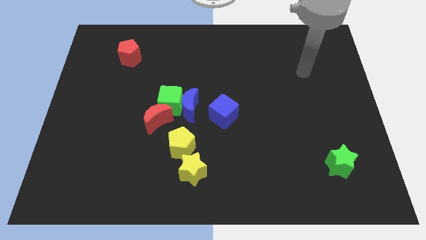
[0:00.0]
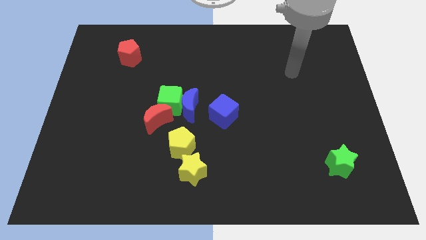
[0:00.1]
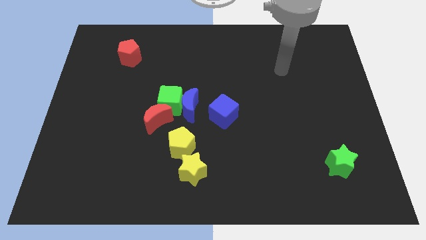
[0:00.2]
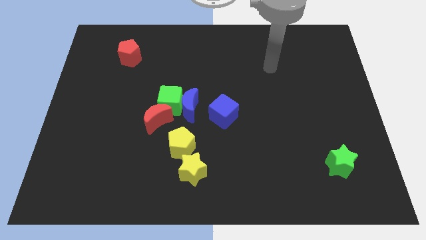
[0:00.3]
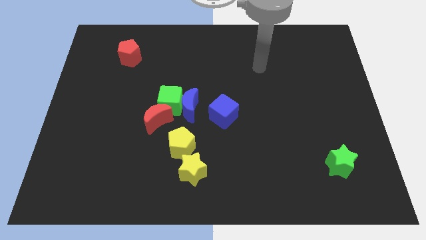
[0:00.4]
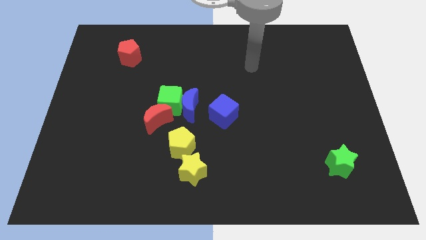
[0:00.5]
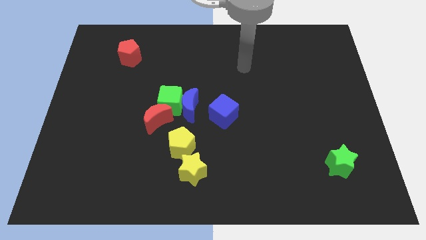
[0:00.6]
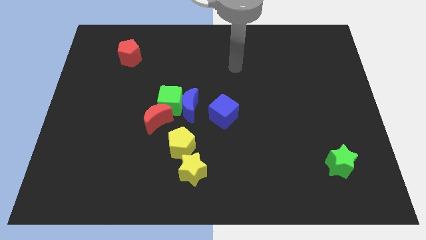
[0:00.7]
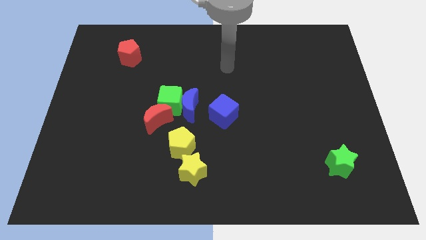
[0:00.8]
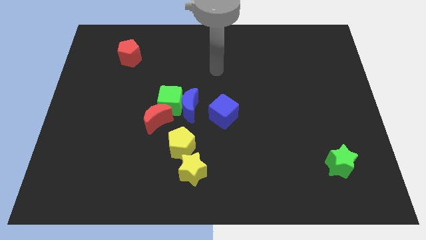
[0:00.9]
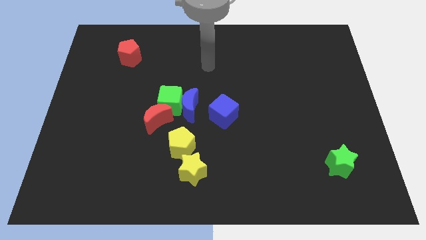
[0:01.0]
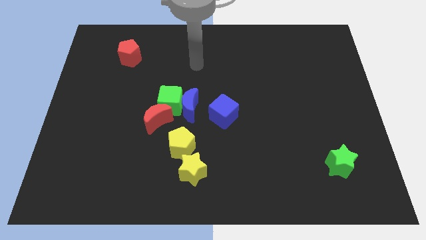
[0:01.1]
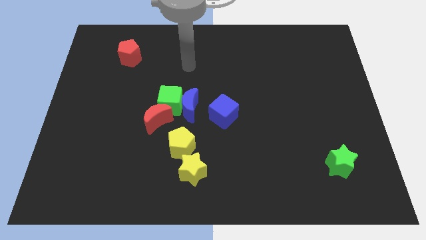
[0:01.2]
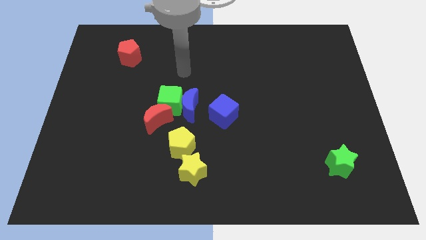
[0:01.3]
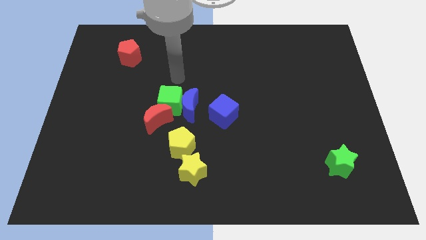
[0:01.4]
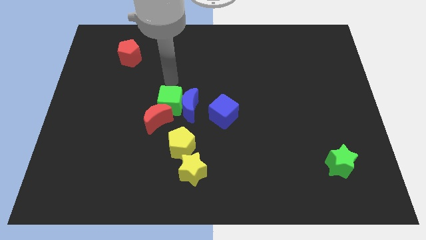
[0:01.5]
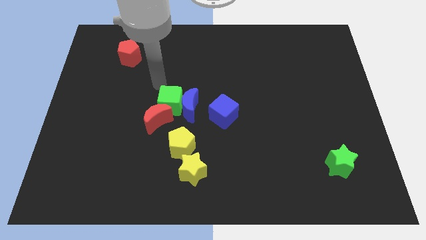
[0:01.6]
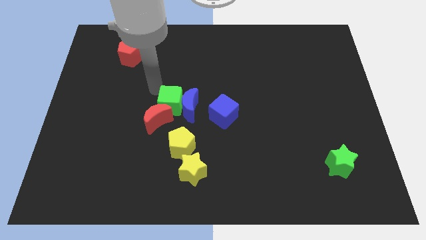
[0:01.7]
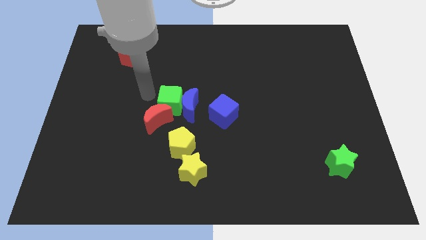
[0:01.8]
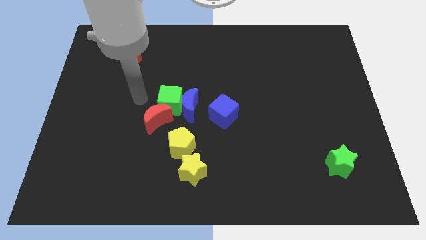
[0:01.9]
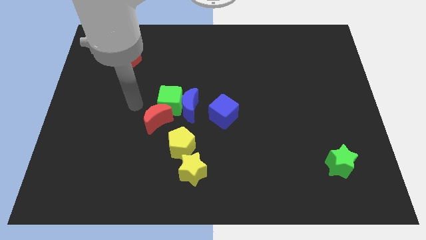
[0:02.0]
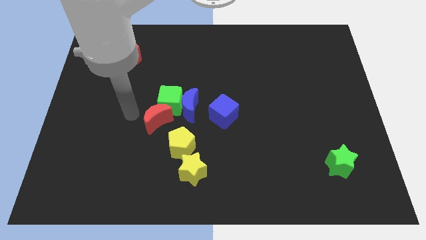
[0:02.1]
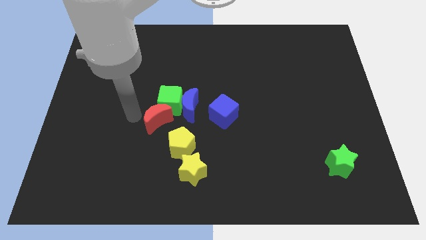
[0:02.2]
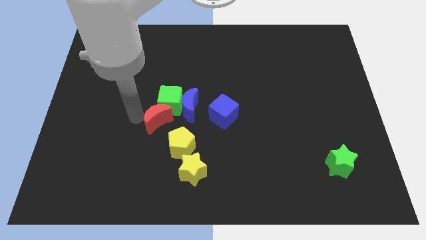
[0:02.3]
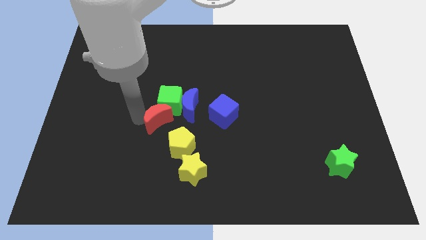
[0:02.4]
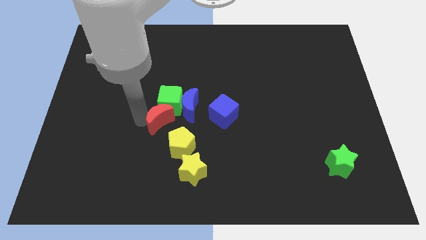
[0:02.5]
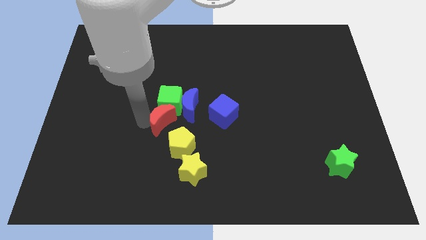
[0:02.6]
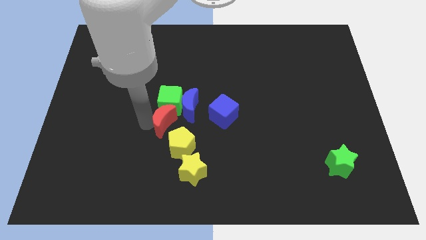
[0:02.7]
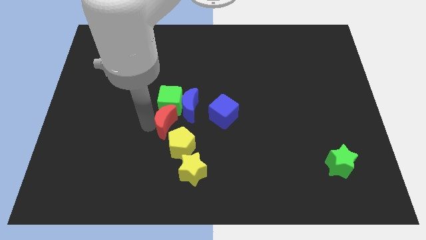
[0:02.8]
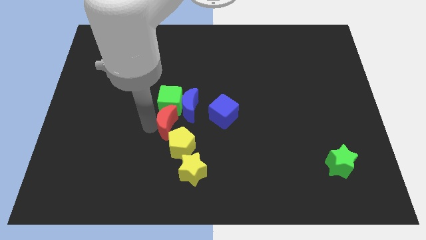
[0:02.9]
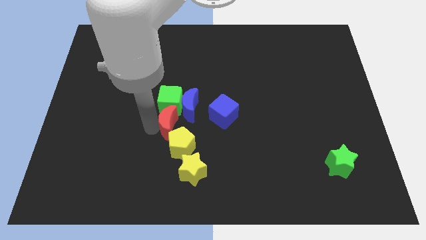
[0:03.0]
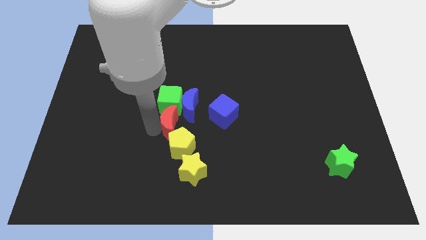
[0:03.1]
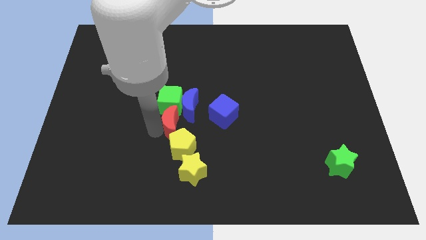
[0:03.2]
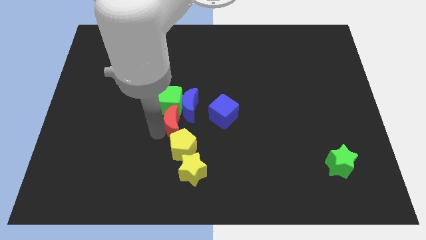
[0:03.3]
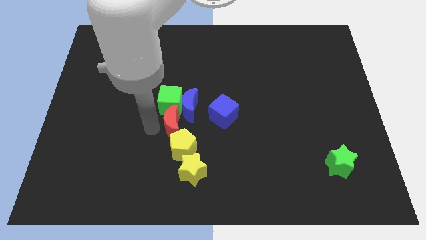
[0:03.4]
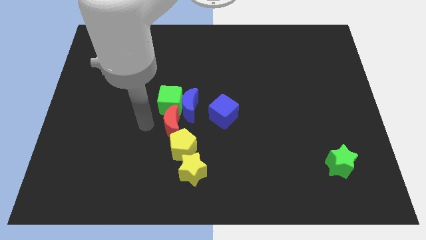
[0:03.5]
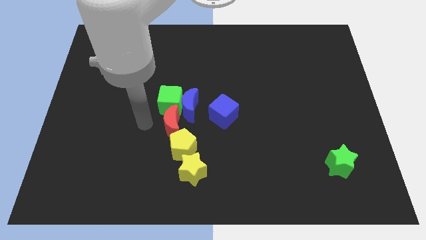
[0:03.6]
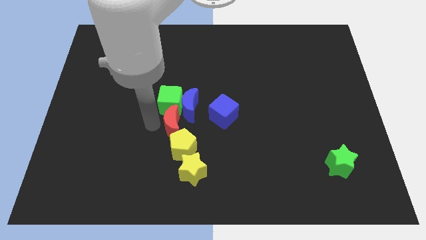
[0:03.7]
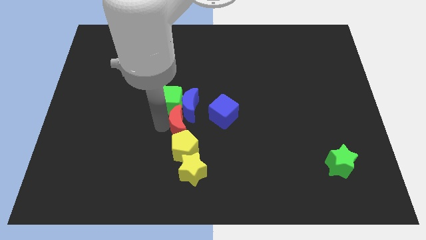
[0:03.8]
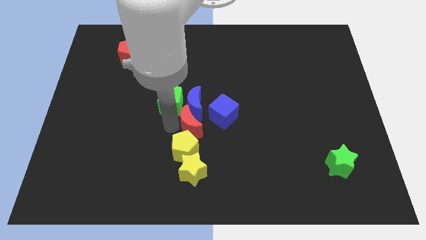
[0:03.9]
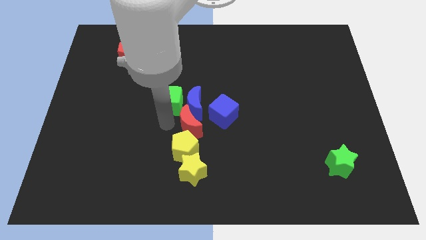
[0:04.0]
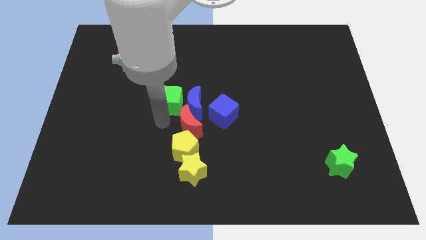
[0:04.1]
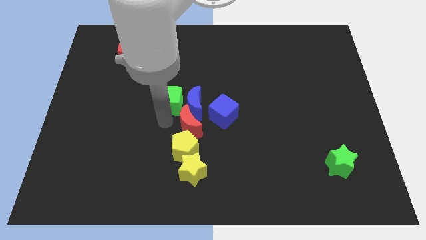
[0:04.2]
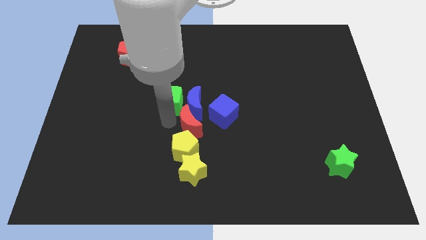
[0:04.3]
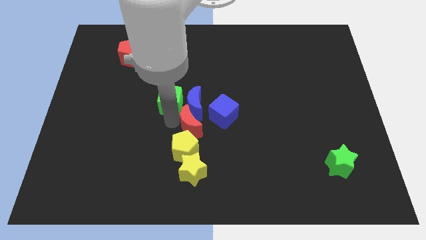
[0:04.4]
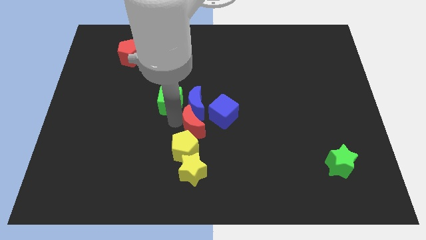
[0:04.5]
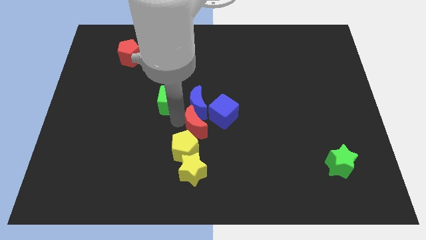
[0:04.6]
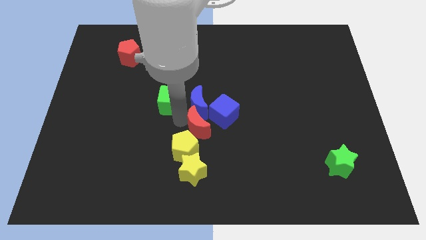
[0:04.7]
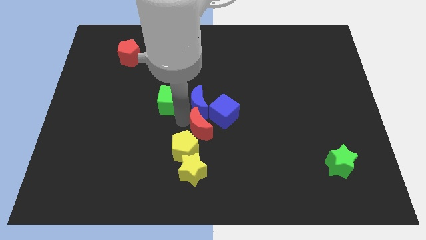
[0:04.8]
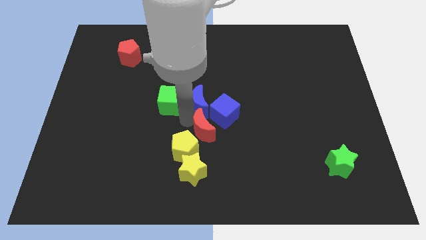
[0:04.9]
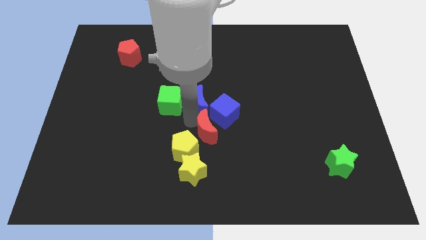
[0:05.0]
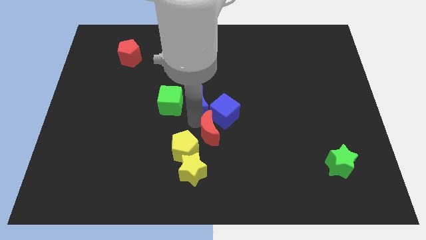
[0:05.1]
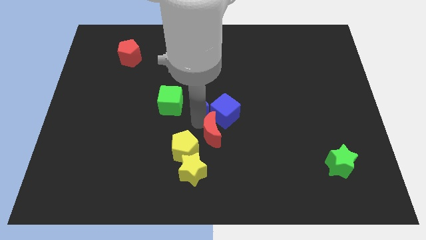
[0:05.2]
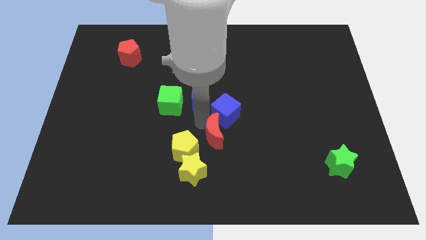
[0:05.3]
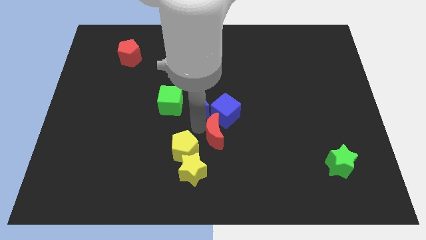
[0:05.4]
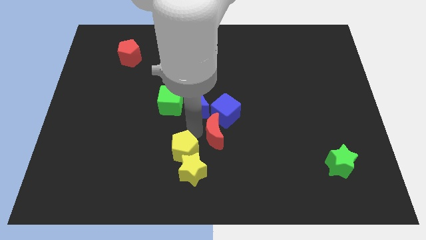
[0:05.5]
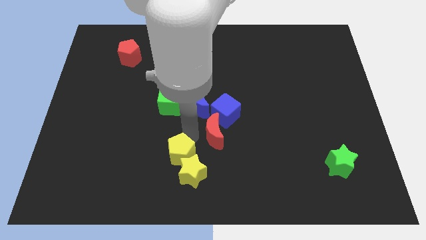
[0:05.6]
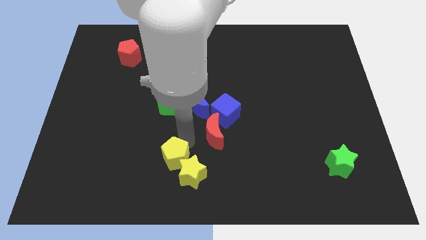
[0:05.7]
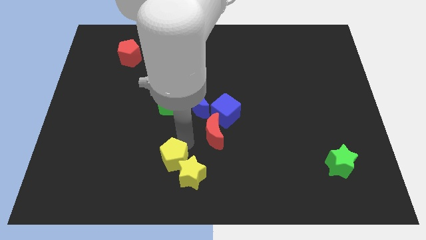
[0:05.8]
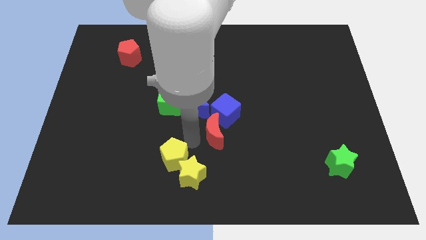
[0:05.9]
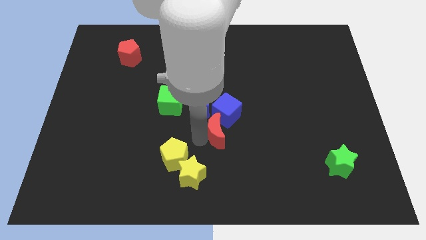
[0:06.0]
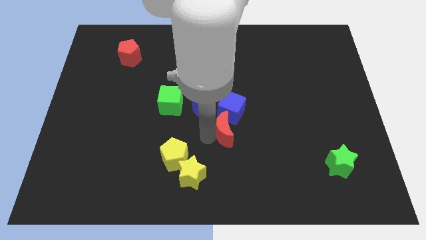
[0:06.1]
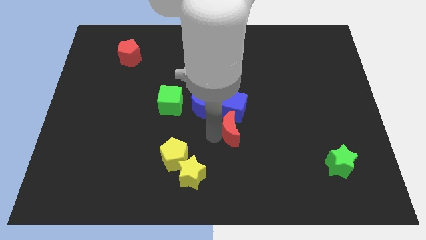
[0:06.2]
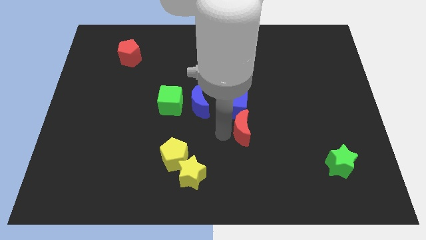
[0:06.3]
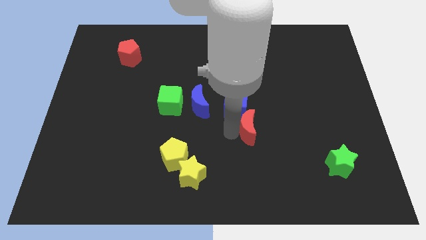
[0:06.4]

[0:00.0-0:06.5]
slide the red moon to the right

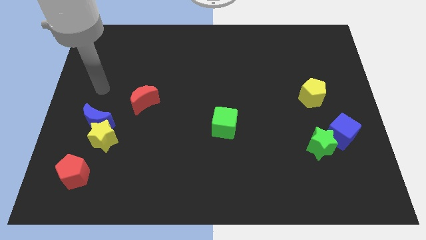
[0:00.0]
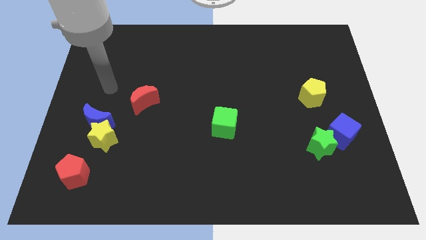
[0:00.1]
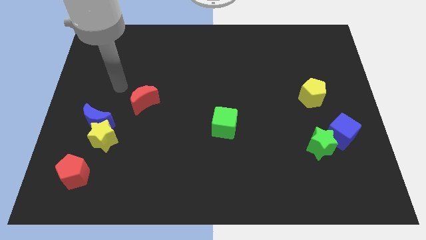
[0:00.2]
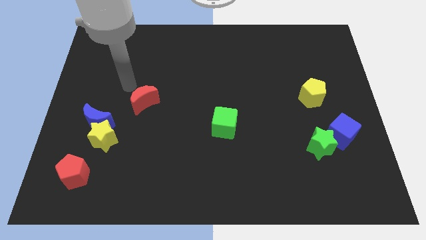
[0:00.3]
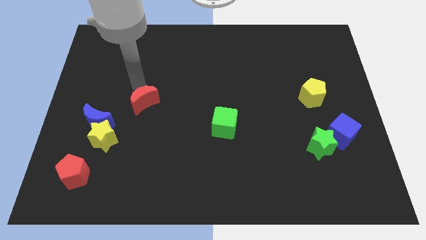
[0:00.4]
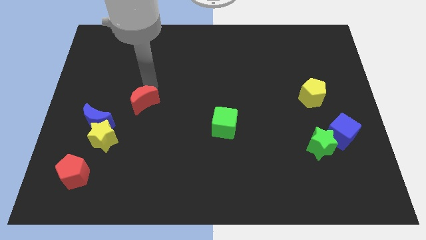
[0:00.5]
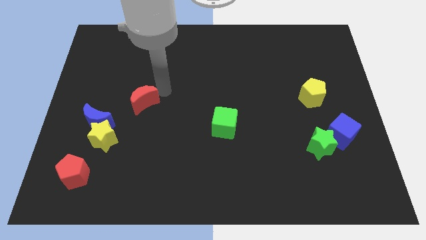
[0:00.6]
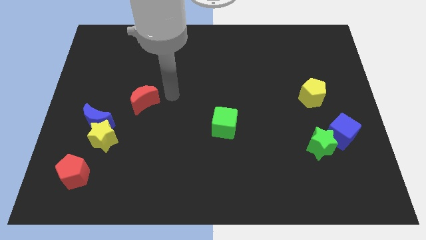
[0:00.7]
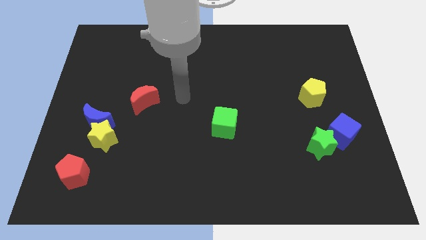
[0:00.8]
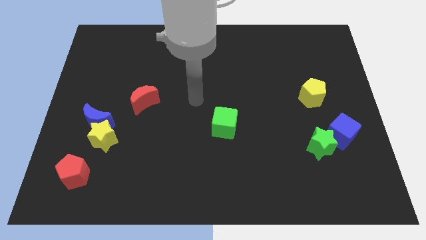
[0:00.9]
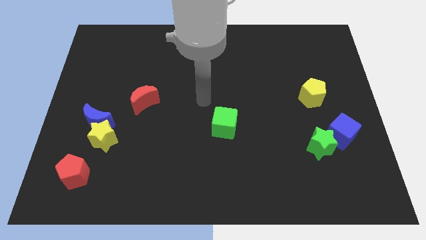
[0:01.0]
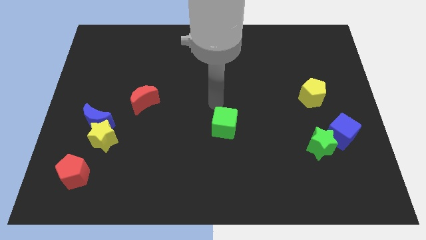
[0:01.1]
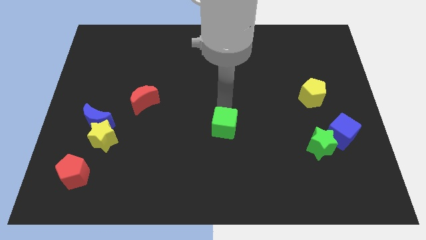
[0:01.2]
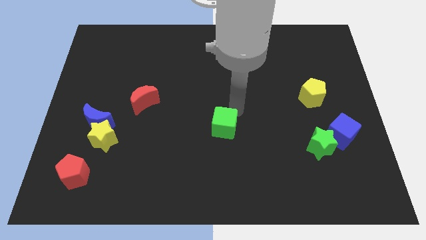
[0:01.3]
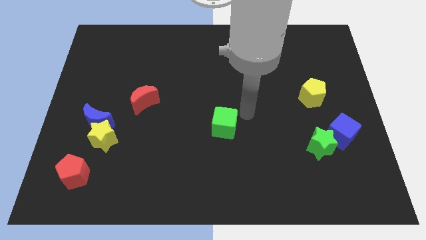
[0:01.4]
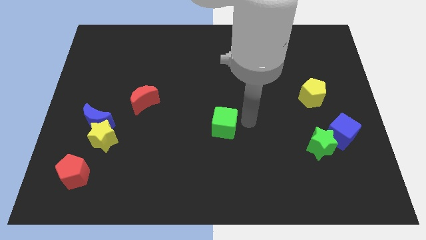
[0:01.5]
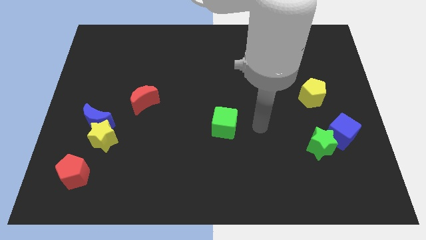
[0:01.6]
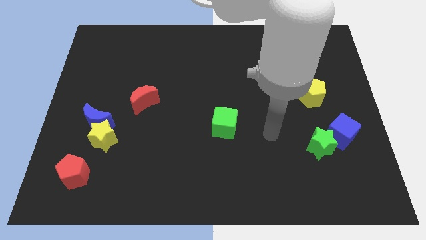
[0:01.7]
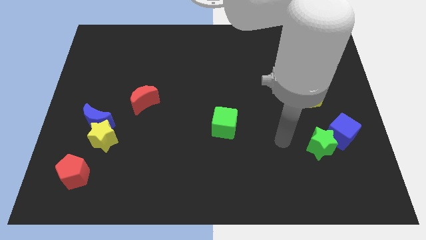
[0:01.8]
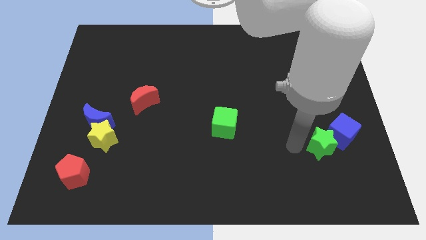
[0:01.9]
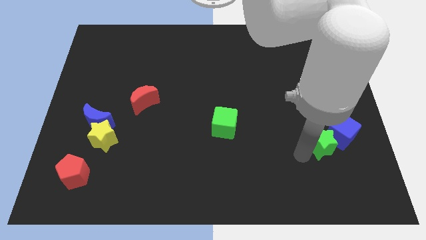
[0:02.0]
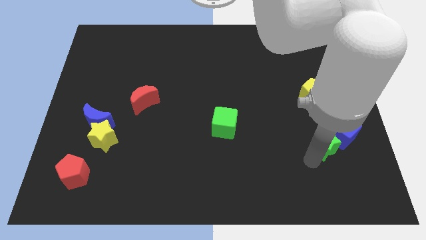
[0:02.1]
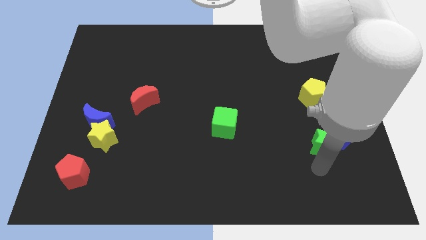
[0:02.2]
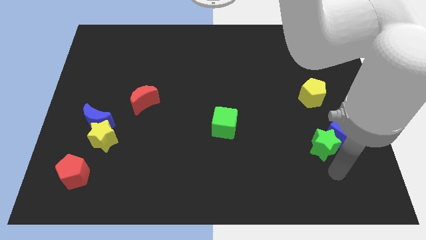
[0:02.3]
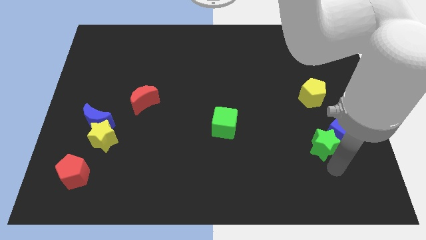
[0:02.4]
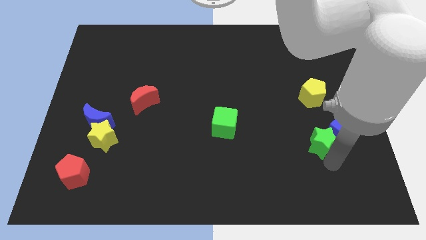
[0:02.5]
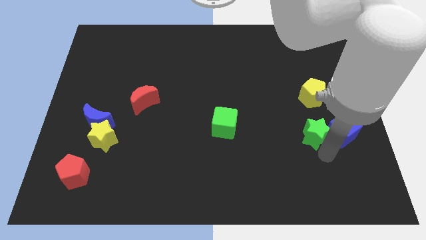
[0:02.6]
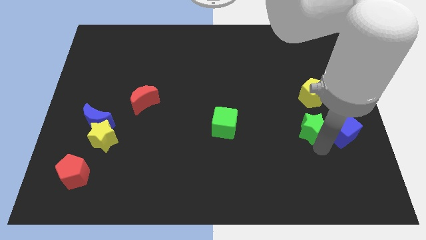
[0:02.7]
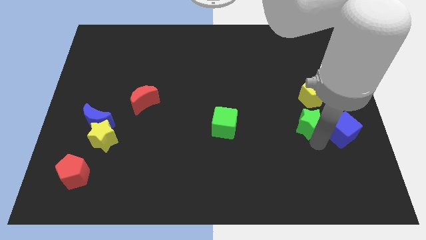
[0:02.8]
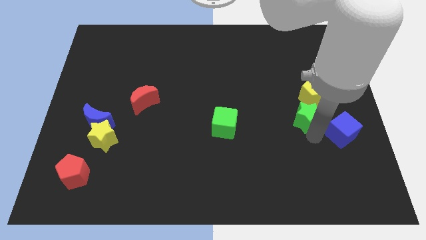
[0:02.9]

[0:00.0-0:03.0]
move the green star a little bit upwards
